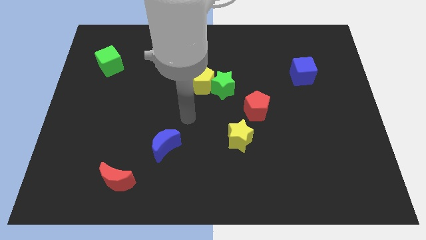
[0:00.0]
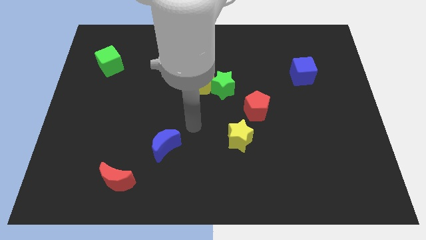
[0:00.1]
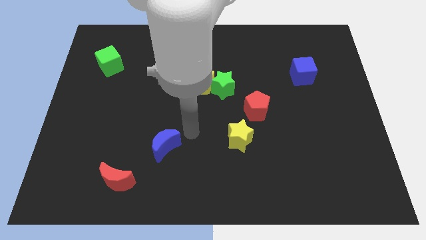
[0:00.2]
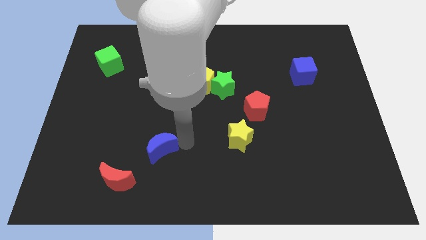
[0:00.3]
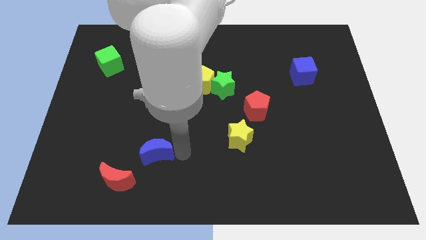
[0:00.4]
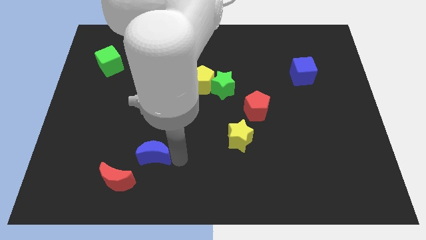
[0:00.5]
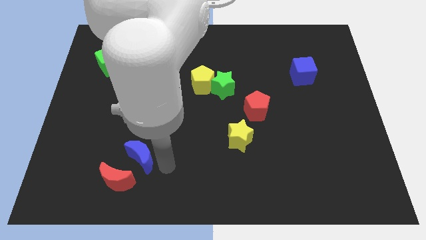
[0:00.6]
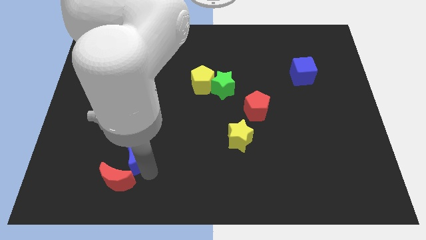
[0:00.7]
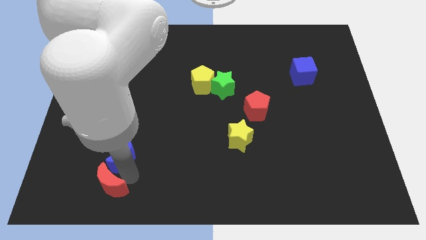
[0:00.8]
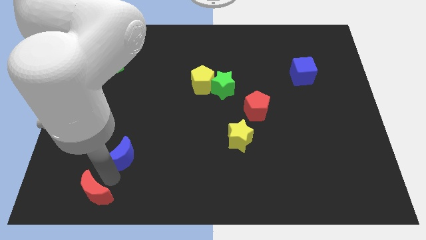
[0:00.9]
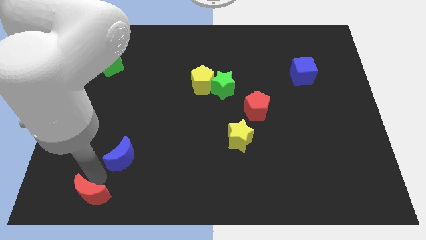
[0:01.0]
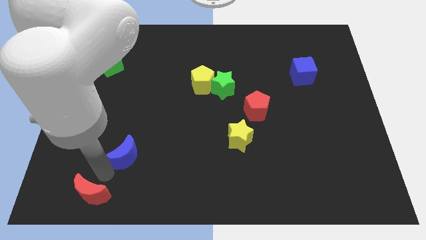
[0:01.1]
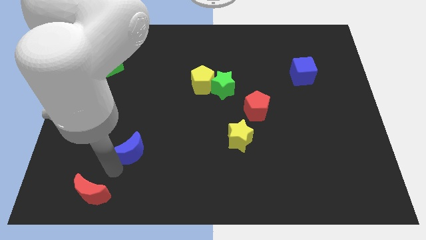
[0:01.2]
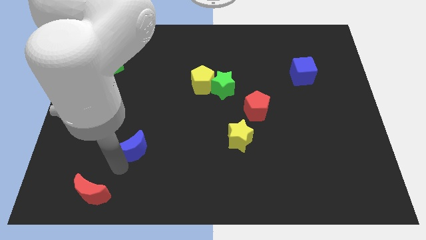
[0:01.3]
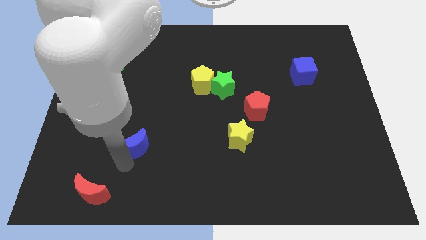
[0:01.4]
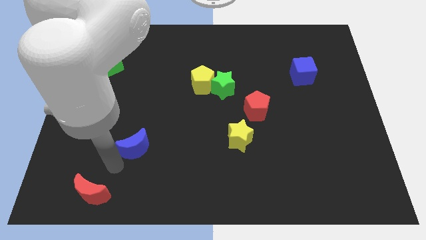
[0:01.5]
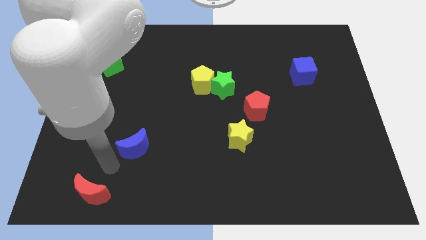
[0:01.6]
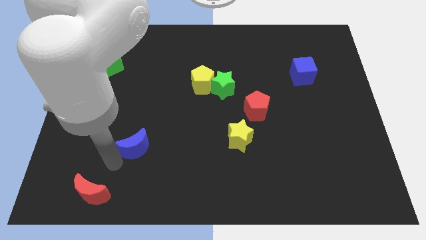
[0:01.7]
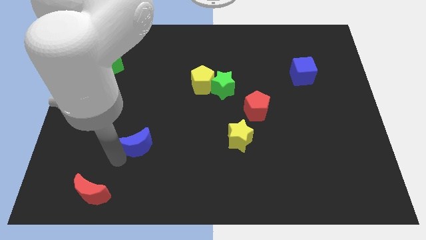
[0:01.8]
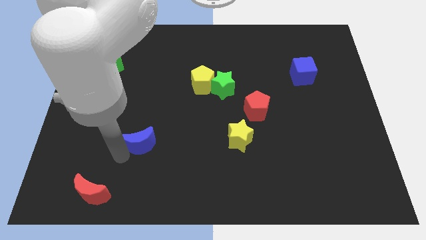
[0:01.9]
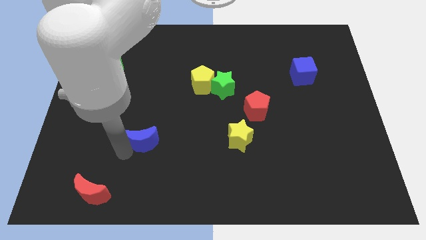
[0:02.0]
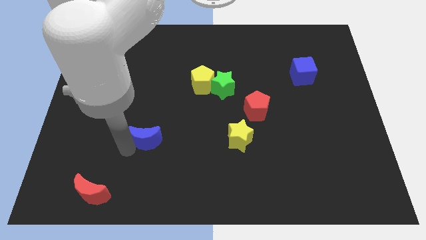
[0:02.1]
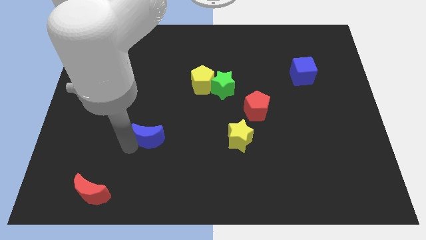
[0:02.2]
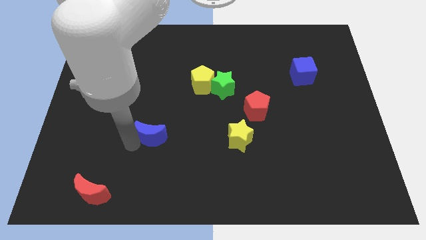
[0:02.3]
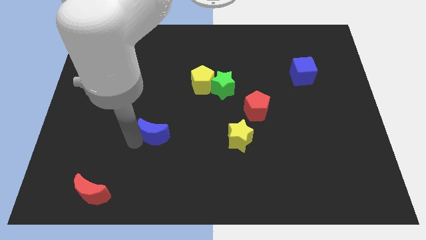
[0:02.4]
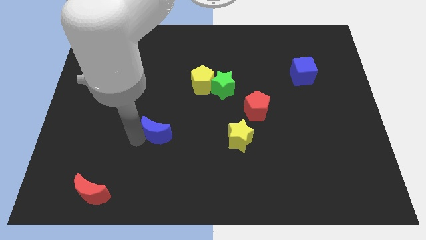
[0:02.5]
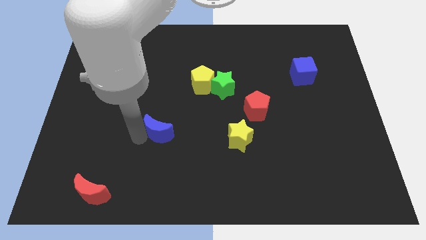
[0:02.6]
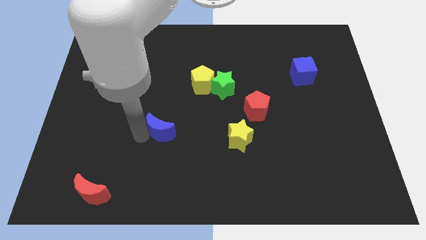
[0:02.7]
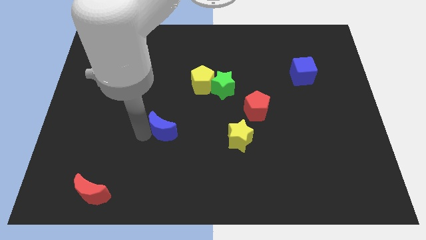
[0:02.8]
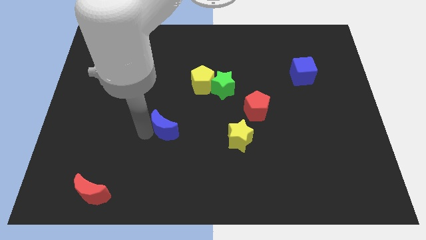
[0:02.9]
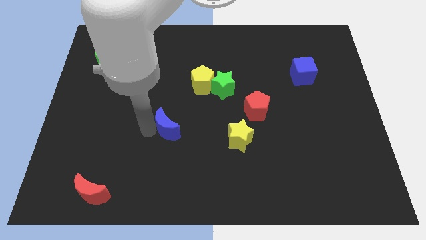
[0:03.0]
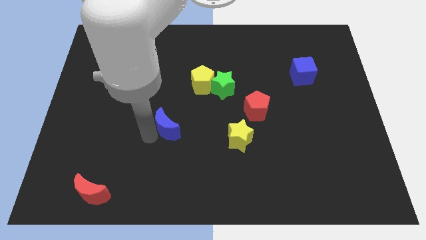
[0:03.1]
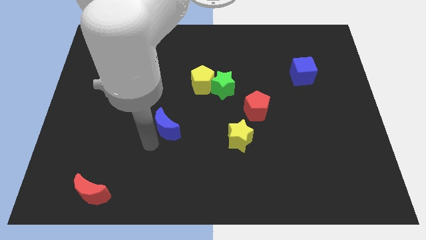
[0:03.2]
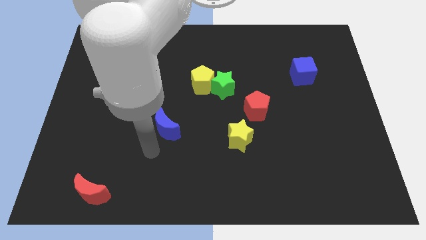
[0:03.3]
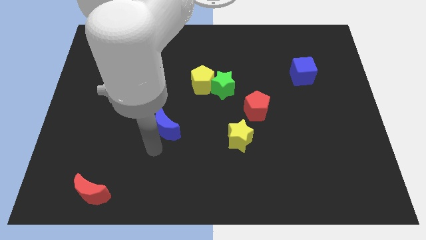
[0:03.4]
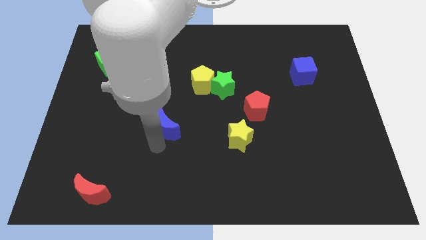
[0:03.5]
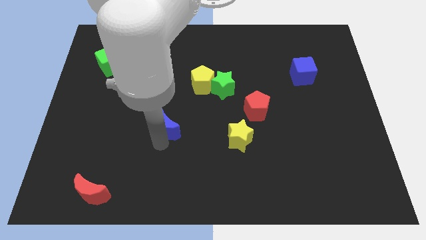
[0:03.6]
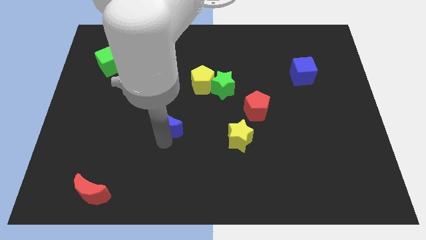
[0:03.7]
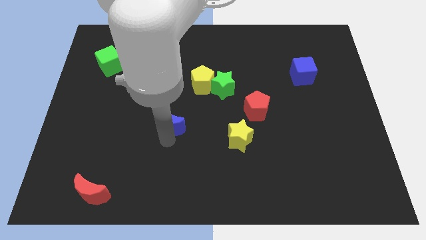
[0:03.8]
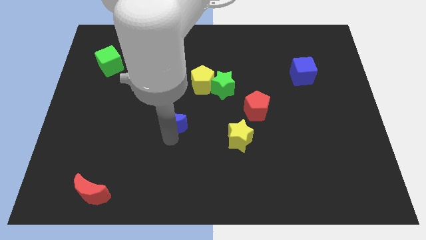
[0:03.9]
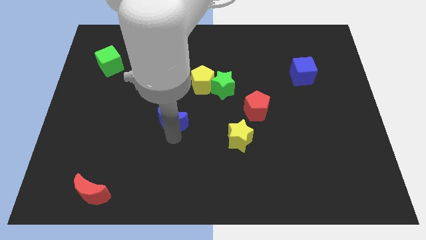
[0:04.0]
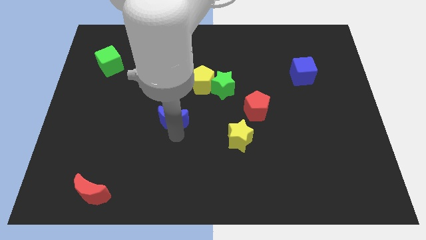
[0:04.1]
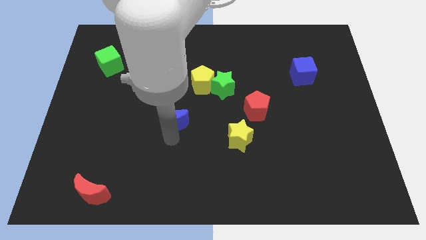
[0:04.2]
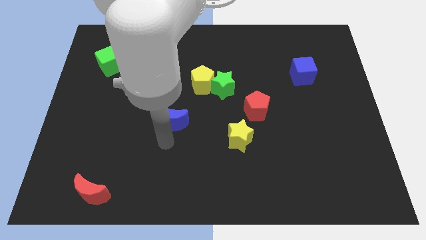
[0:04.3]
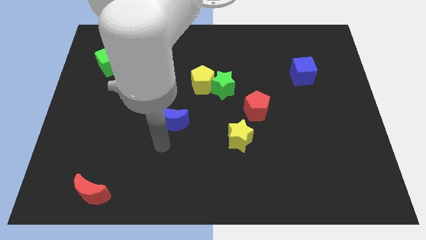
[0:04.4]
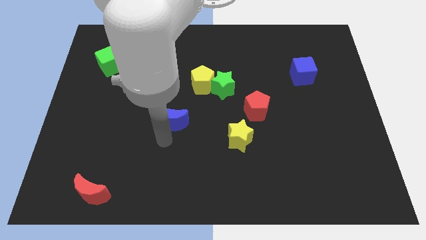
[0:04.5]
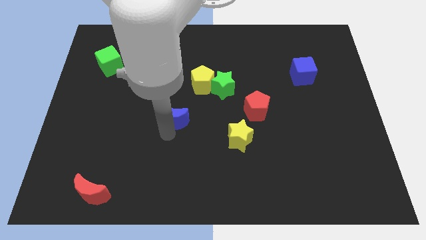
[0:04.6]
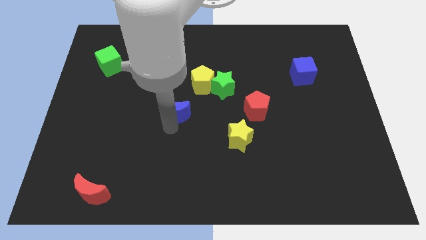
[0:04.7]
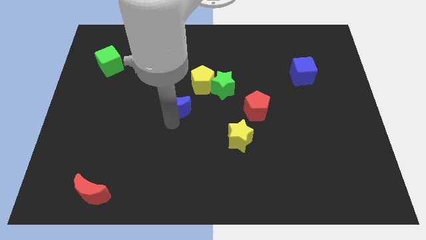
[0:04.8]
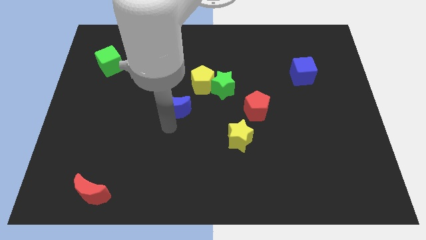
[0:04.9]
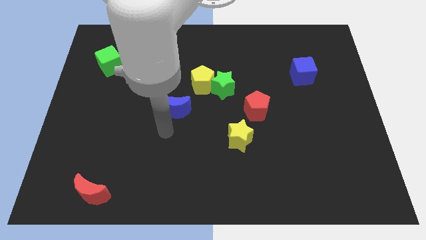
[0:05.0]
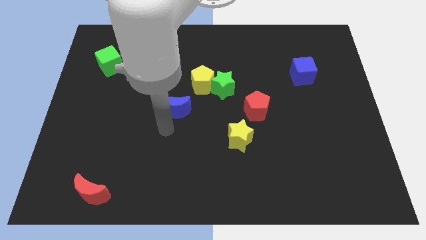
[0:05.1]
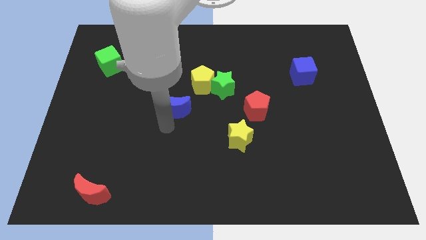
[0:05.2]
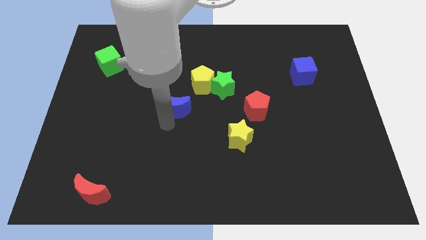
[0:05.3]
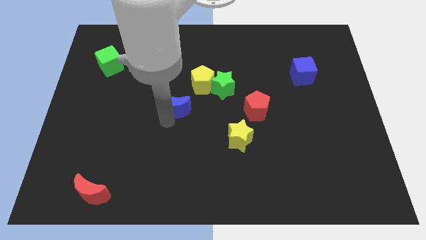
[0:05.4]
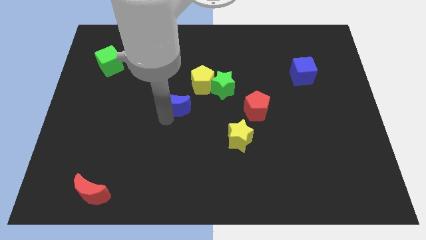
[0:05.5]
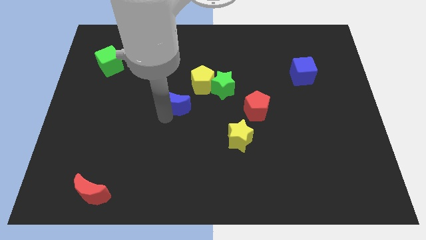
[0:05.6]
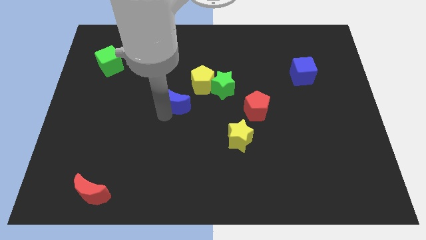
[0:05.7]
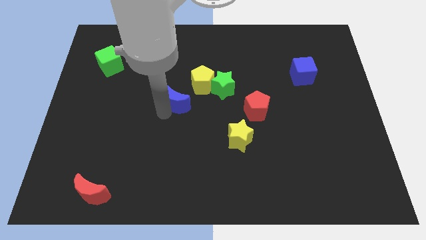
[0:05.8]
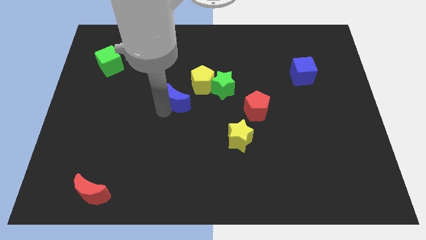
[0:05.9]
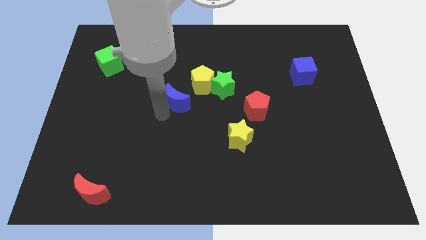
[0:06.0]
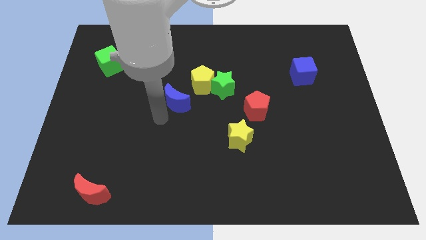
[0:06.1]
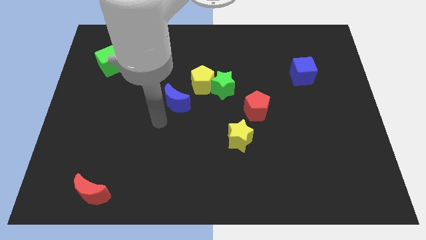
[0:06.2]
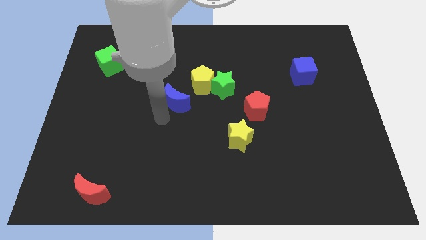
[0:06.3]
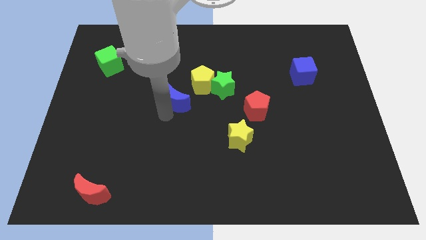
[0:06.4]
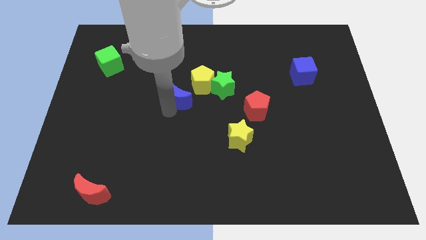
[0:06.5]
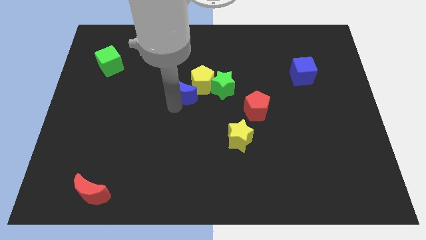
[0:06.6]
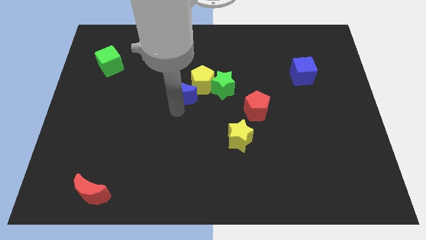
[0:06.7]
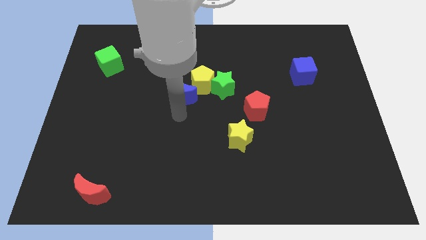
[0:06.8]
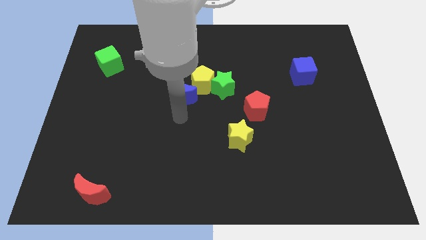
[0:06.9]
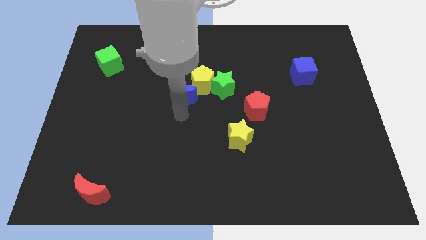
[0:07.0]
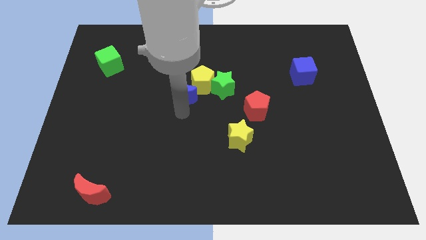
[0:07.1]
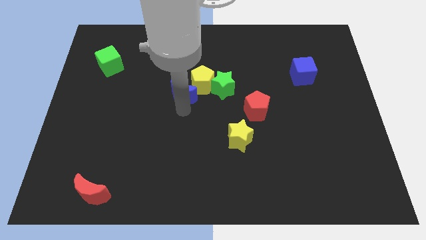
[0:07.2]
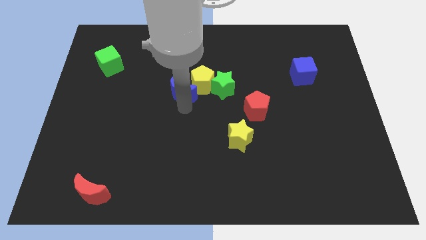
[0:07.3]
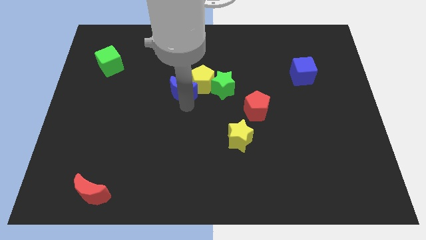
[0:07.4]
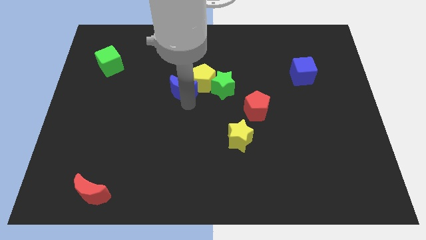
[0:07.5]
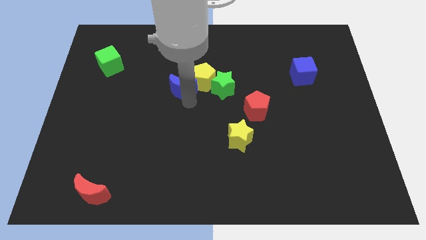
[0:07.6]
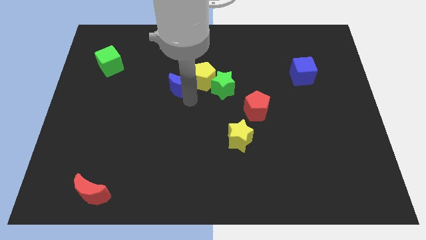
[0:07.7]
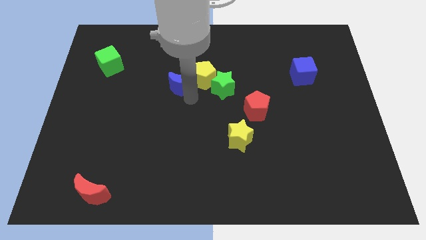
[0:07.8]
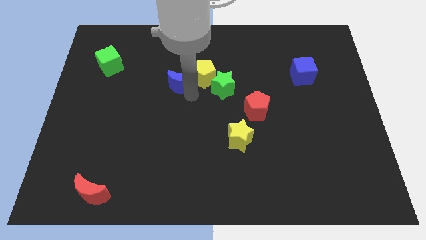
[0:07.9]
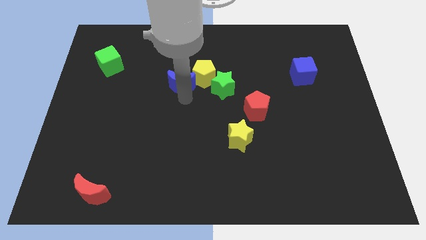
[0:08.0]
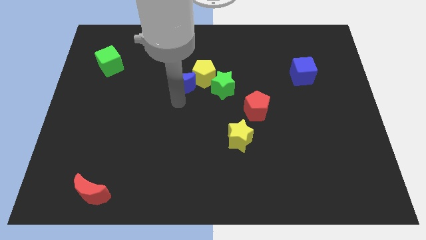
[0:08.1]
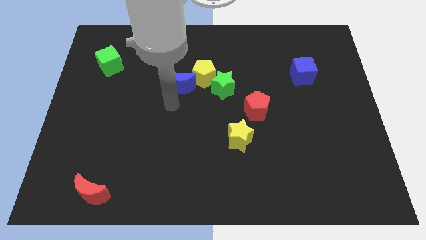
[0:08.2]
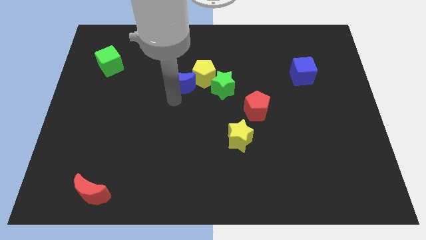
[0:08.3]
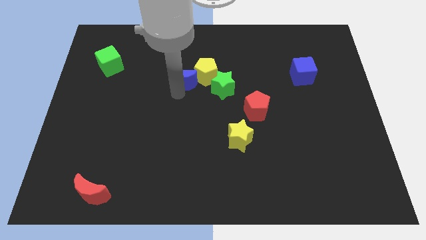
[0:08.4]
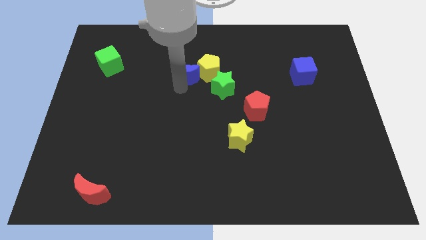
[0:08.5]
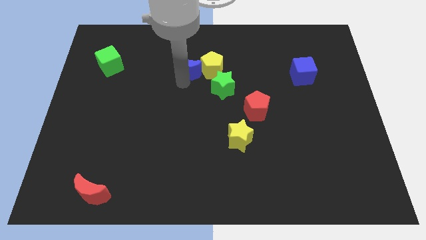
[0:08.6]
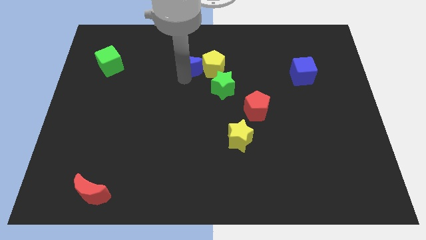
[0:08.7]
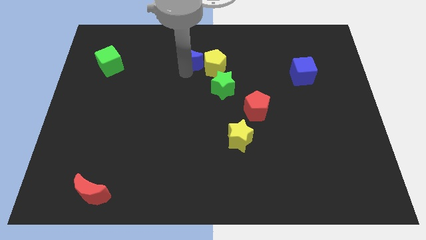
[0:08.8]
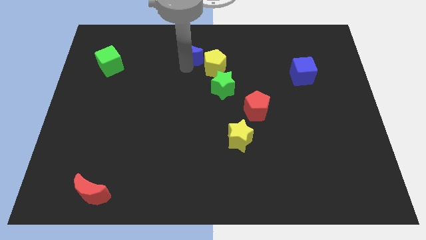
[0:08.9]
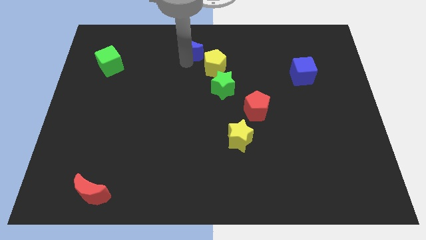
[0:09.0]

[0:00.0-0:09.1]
push the blue moon to the top side
